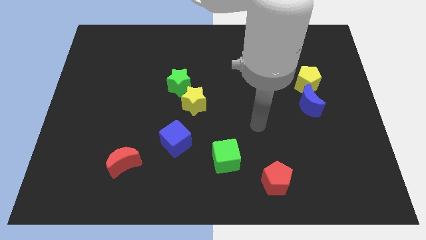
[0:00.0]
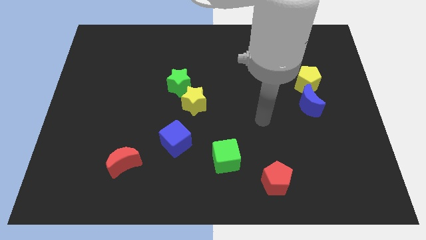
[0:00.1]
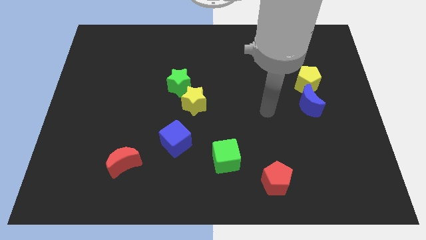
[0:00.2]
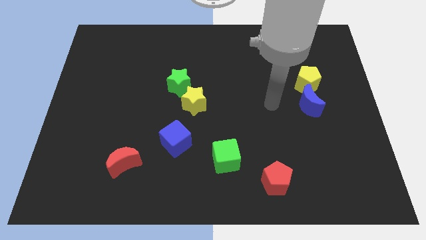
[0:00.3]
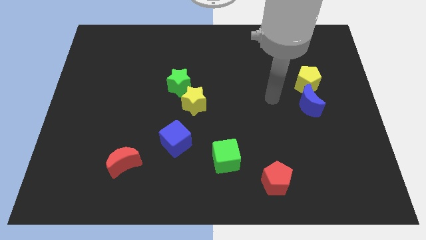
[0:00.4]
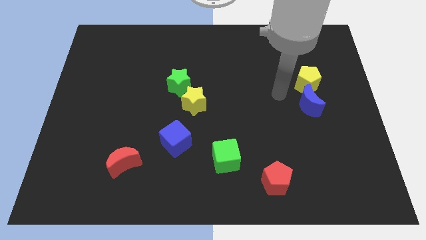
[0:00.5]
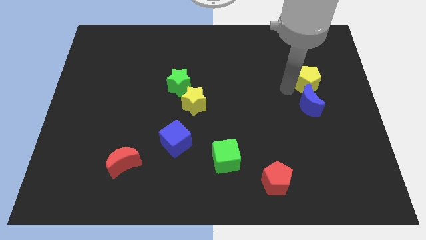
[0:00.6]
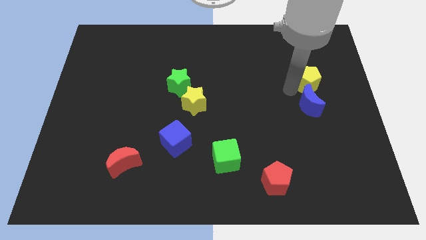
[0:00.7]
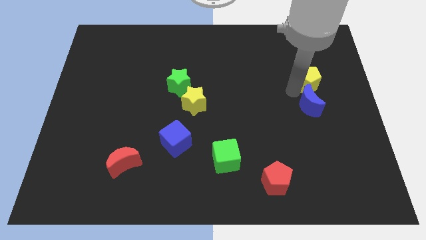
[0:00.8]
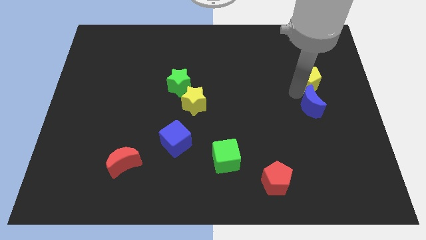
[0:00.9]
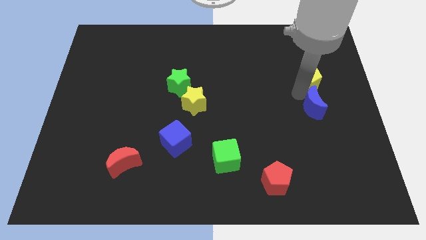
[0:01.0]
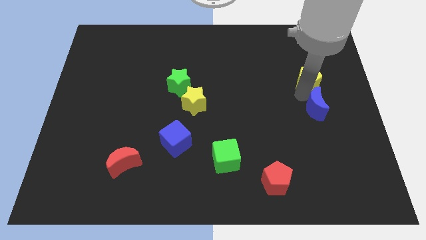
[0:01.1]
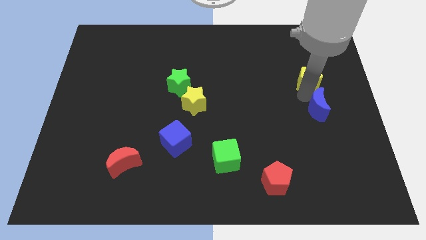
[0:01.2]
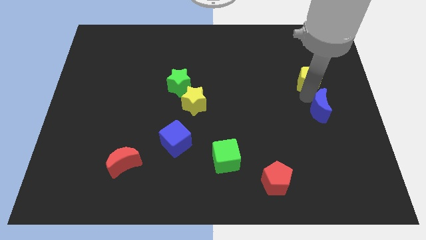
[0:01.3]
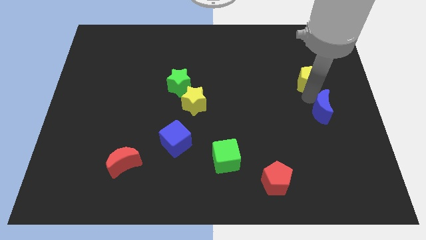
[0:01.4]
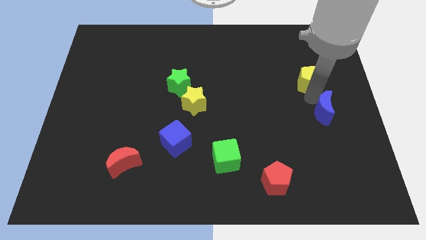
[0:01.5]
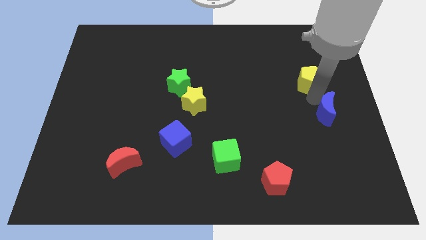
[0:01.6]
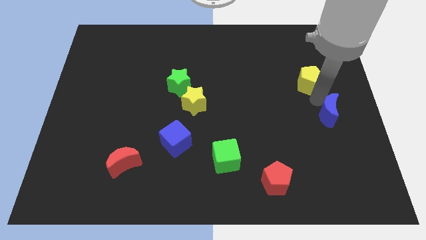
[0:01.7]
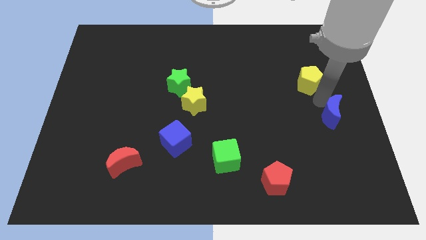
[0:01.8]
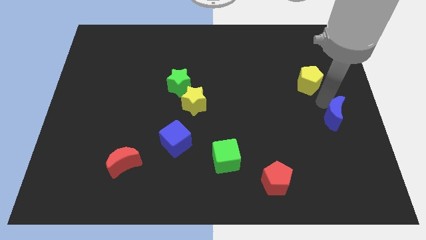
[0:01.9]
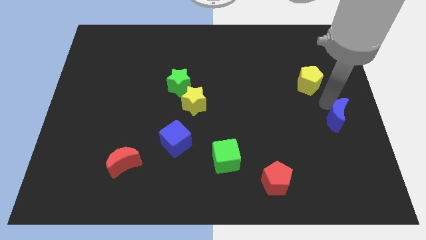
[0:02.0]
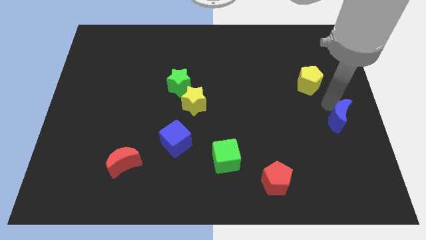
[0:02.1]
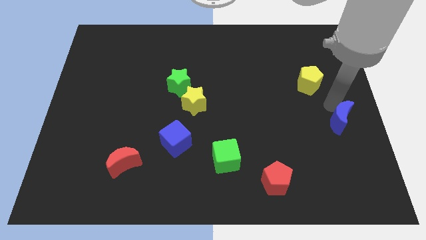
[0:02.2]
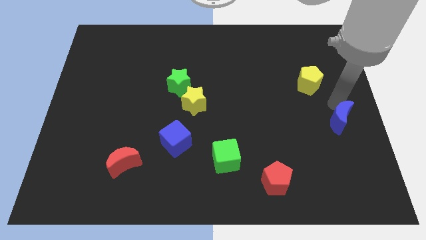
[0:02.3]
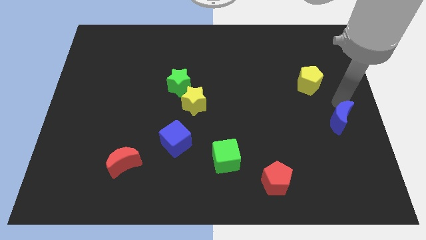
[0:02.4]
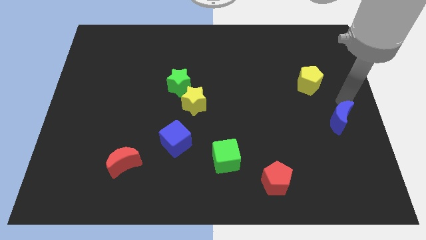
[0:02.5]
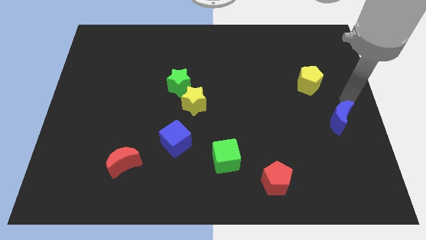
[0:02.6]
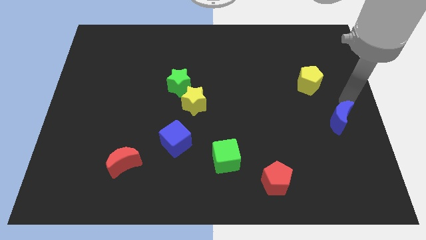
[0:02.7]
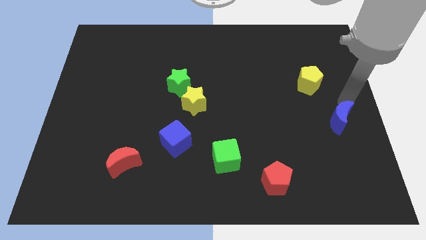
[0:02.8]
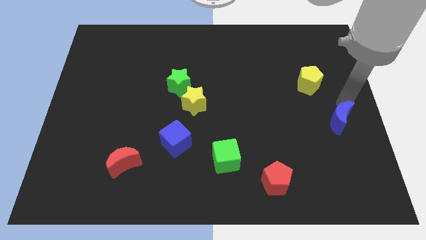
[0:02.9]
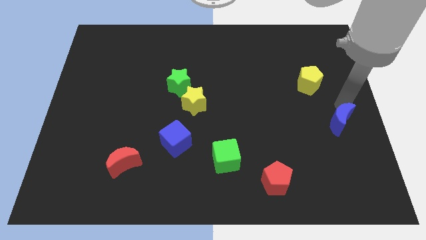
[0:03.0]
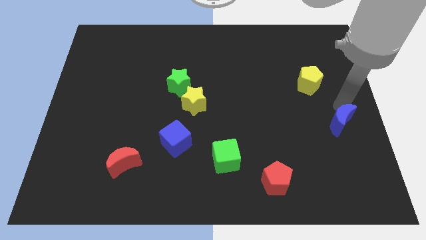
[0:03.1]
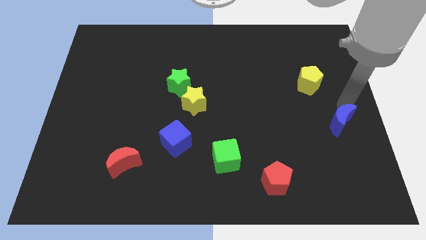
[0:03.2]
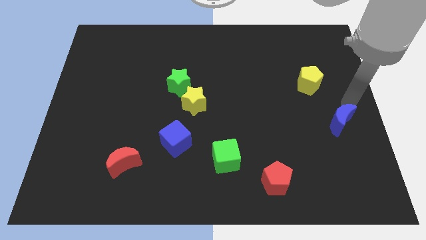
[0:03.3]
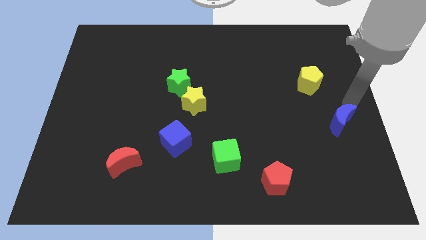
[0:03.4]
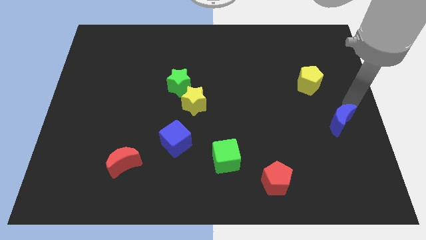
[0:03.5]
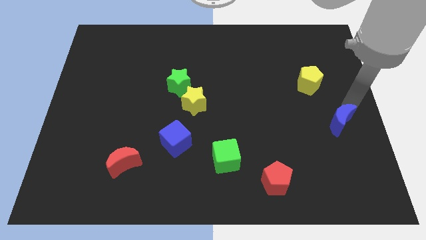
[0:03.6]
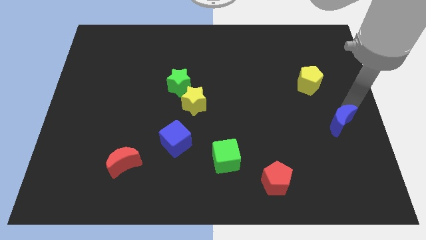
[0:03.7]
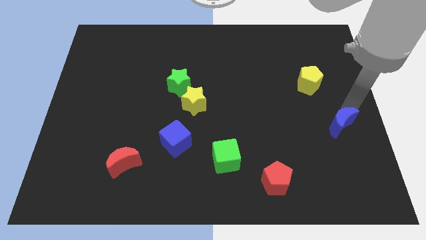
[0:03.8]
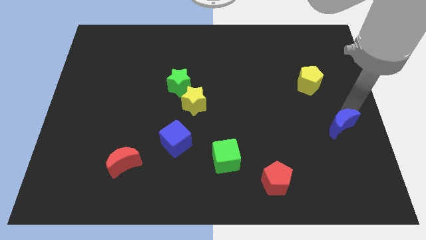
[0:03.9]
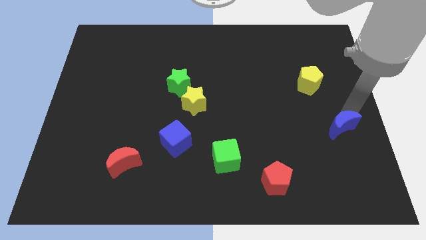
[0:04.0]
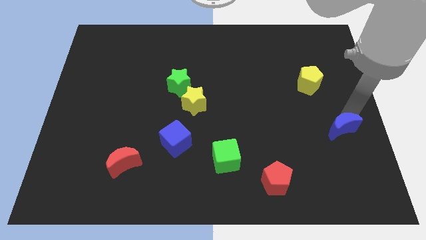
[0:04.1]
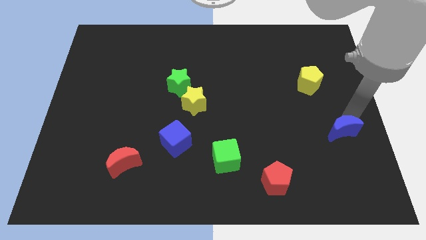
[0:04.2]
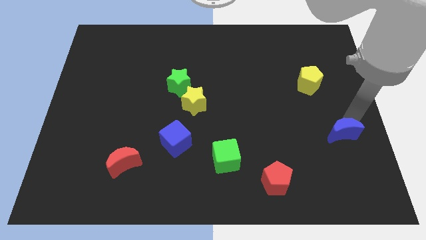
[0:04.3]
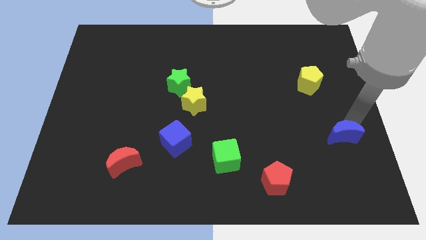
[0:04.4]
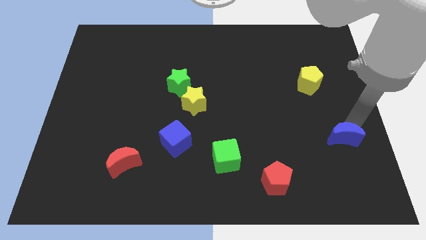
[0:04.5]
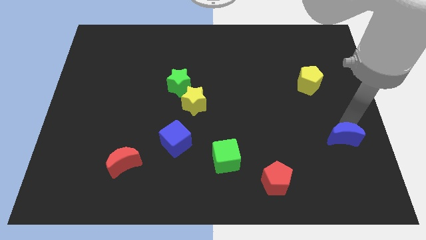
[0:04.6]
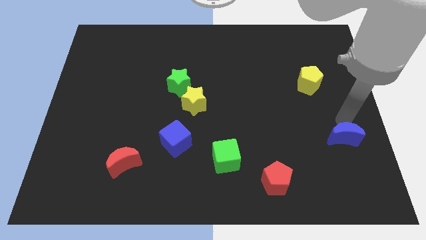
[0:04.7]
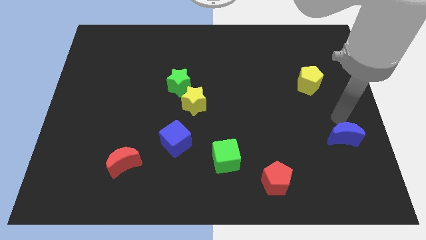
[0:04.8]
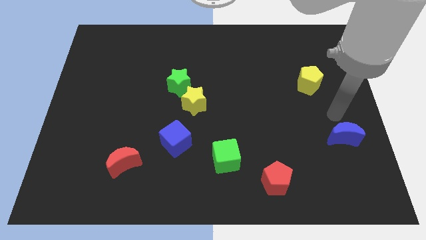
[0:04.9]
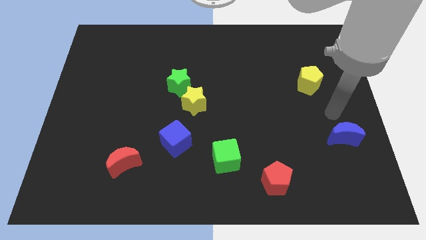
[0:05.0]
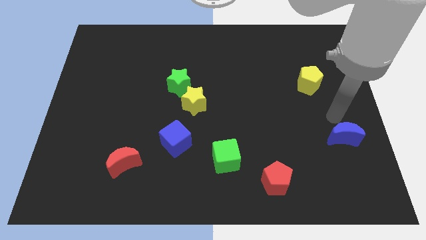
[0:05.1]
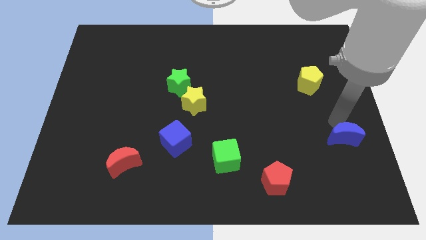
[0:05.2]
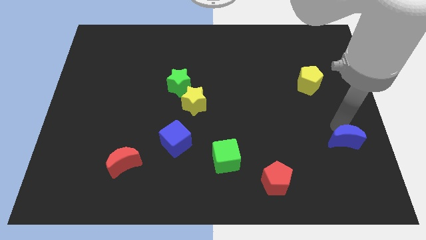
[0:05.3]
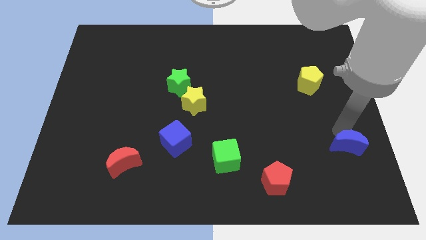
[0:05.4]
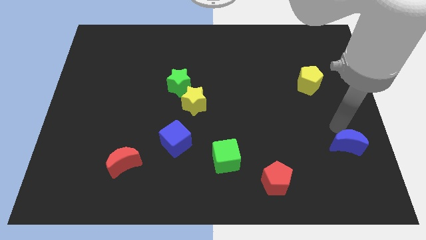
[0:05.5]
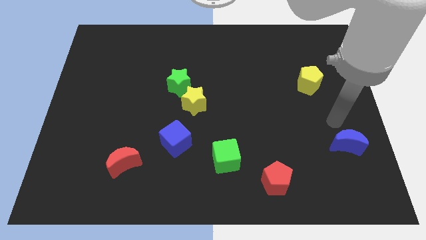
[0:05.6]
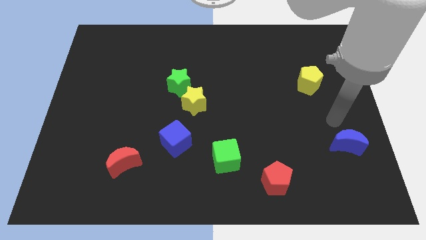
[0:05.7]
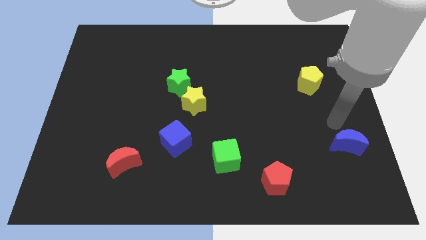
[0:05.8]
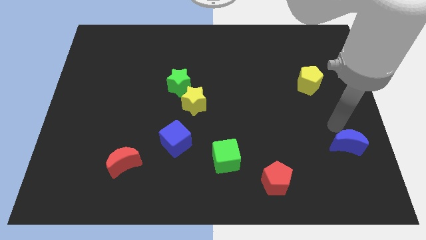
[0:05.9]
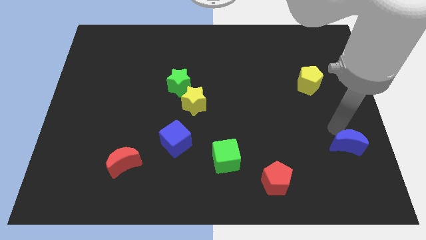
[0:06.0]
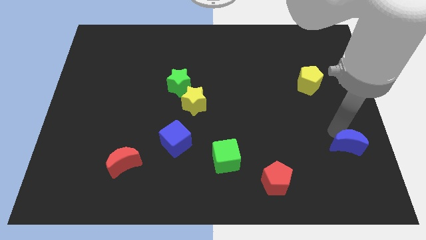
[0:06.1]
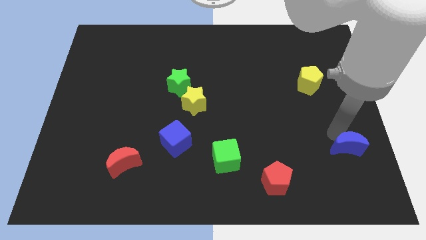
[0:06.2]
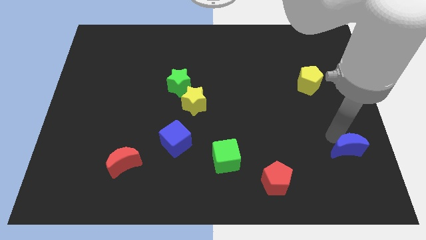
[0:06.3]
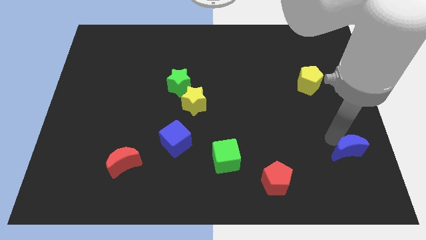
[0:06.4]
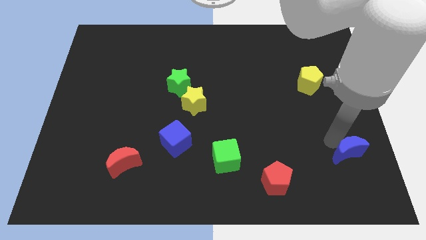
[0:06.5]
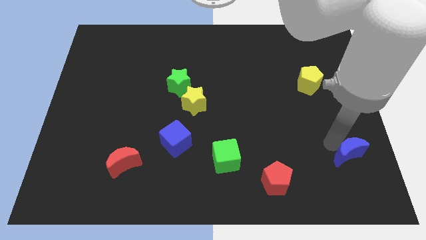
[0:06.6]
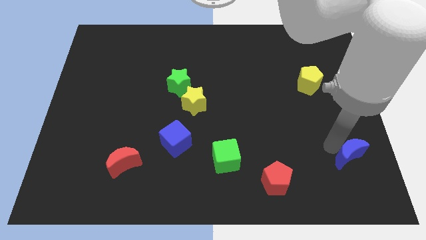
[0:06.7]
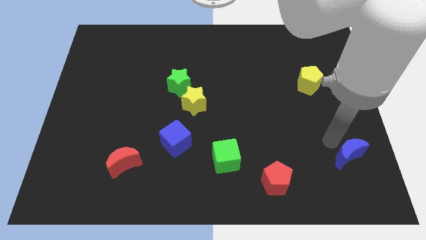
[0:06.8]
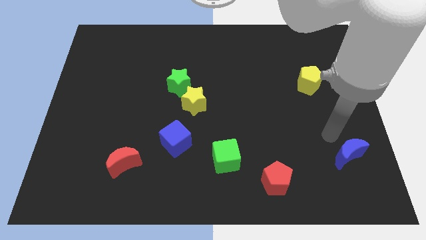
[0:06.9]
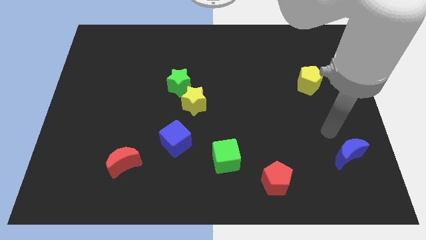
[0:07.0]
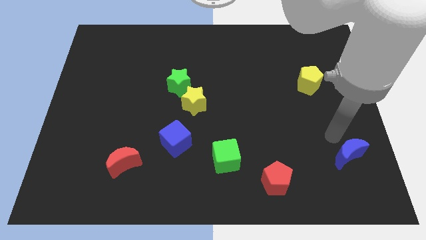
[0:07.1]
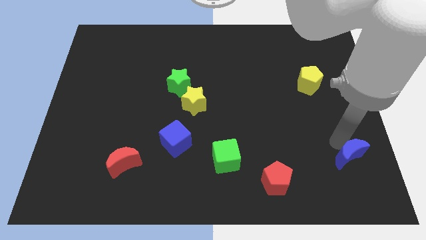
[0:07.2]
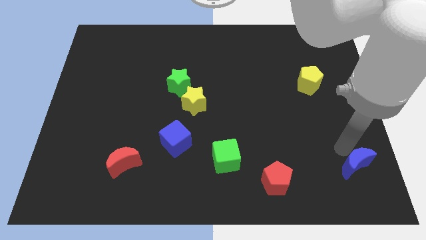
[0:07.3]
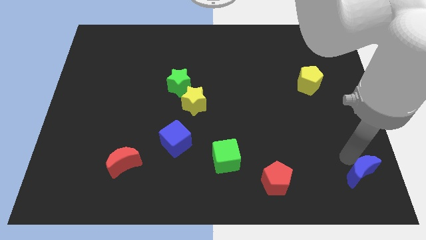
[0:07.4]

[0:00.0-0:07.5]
move the blue moon to the bottom right corner
